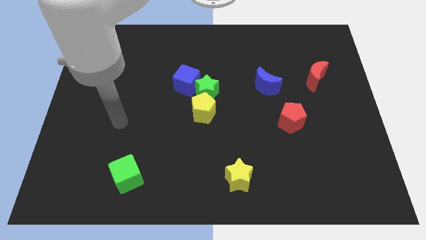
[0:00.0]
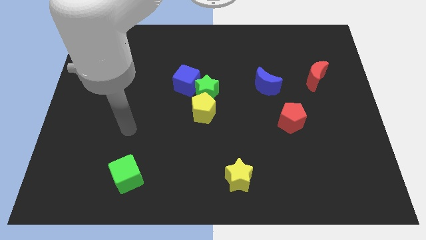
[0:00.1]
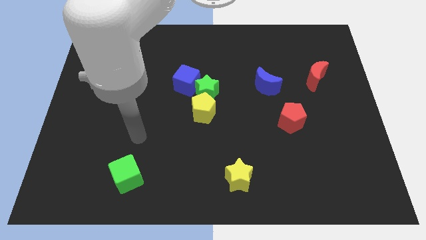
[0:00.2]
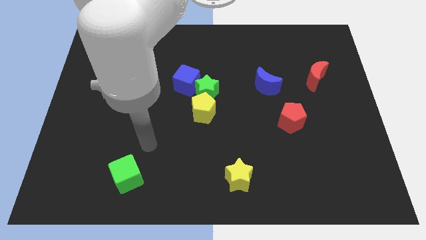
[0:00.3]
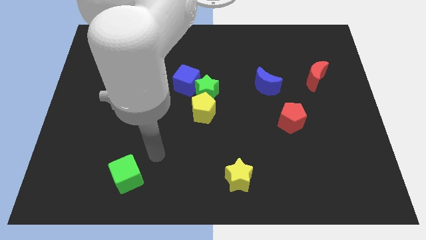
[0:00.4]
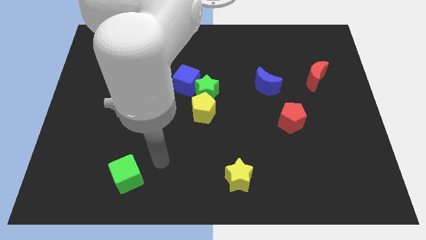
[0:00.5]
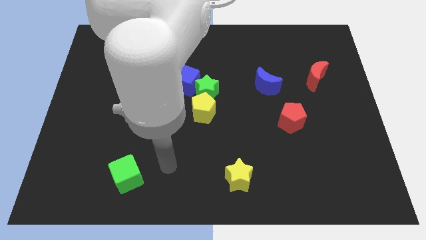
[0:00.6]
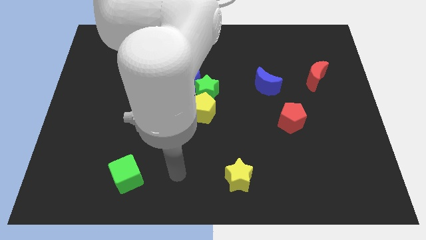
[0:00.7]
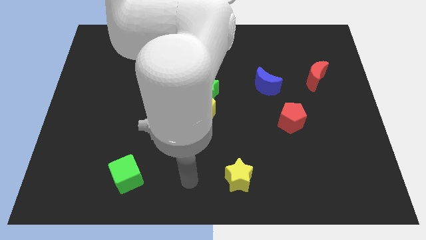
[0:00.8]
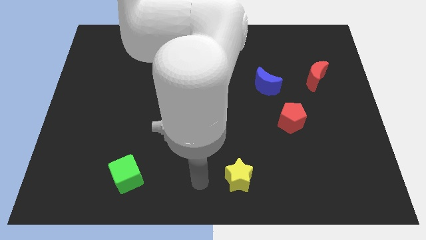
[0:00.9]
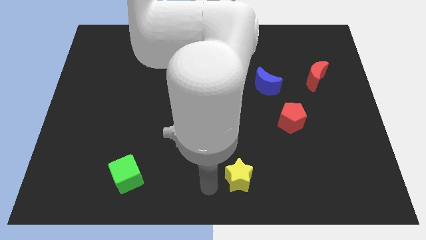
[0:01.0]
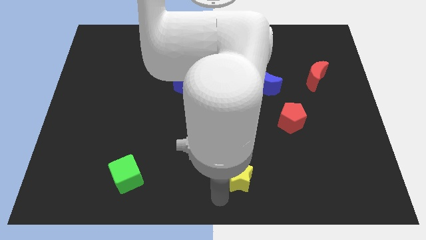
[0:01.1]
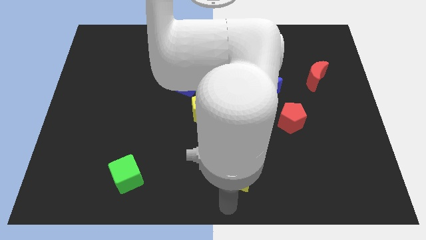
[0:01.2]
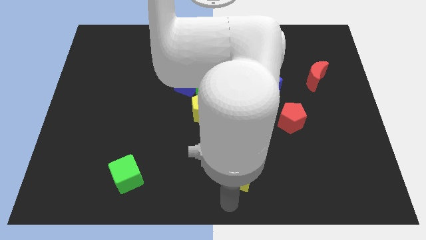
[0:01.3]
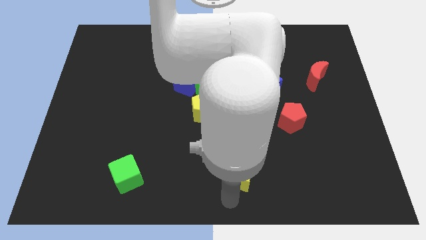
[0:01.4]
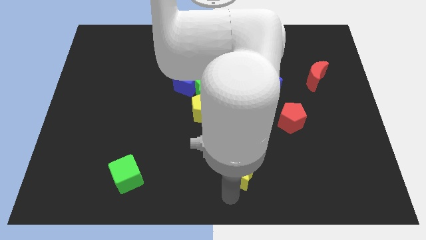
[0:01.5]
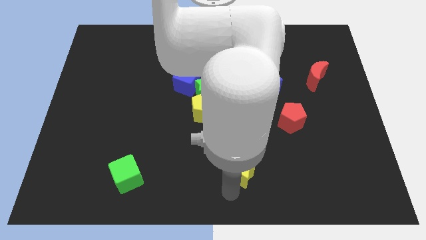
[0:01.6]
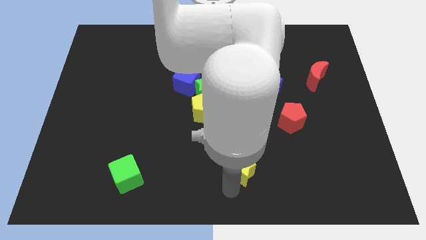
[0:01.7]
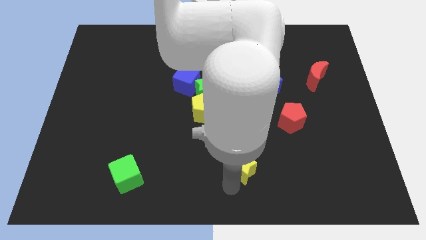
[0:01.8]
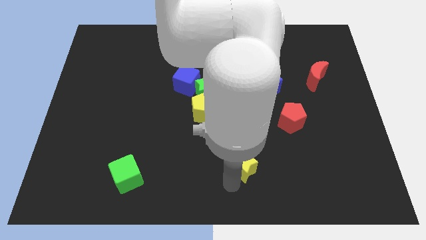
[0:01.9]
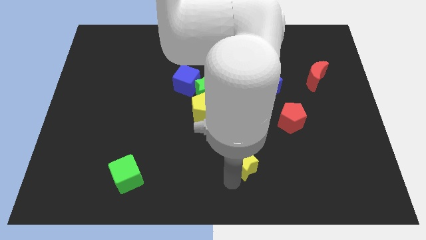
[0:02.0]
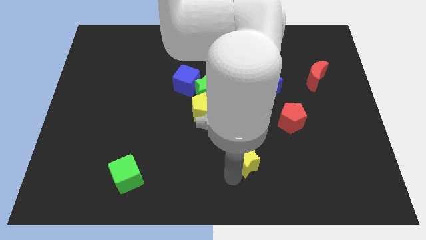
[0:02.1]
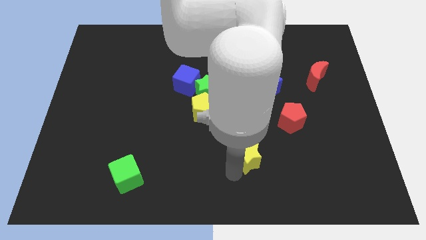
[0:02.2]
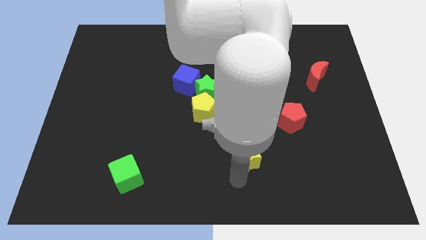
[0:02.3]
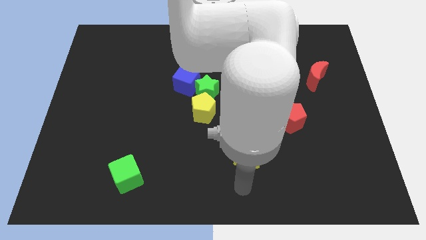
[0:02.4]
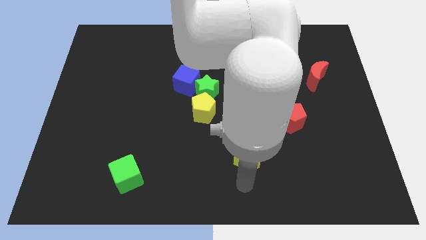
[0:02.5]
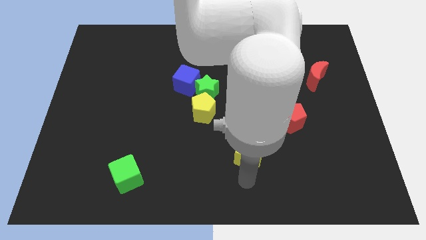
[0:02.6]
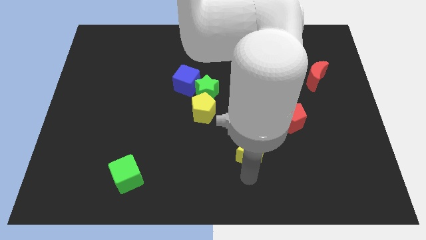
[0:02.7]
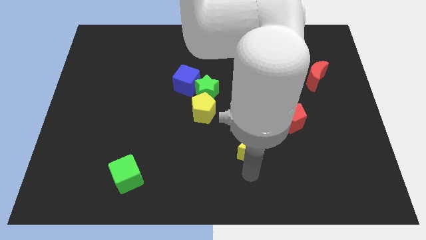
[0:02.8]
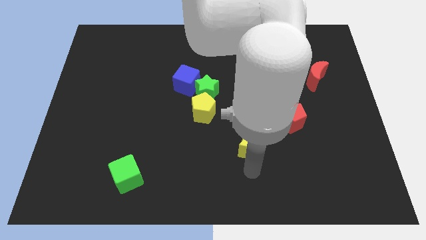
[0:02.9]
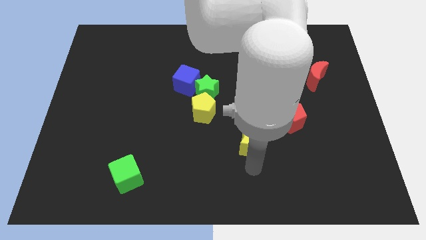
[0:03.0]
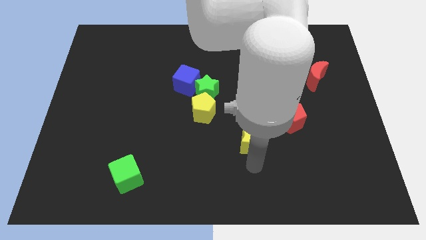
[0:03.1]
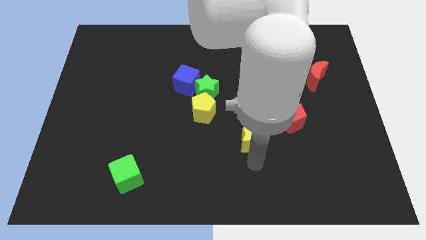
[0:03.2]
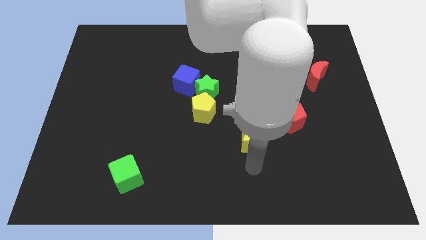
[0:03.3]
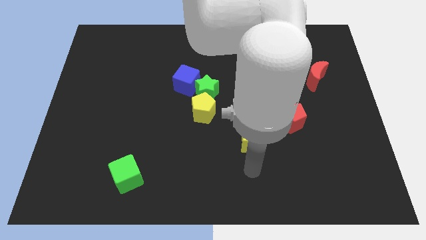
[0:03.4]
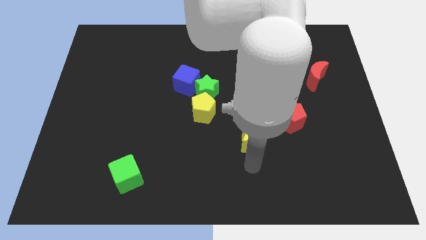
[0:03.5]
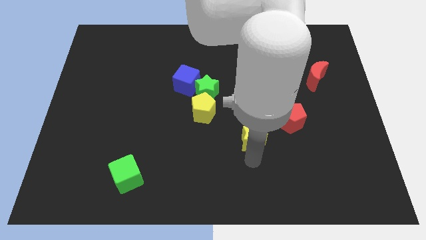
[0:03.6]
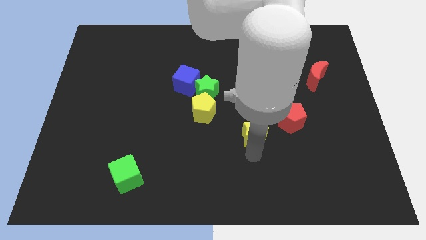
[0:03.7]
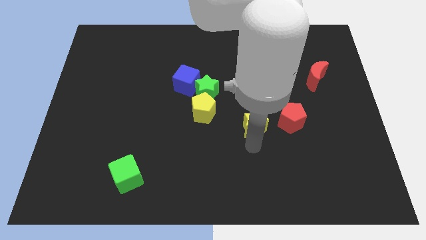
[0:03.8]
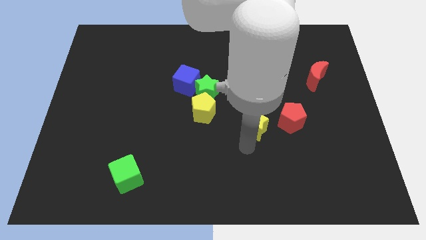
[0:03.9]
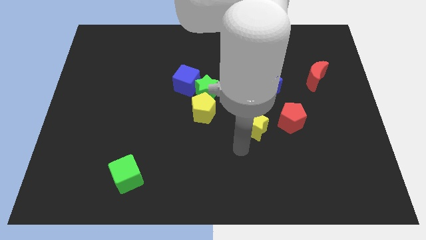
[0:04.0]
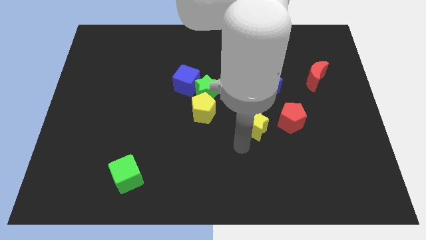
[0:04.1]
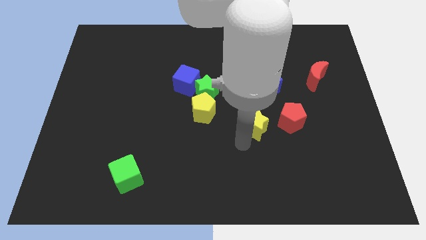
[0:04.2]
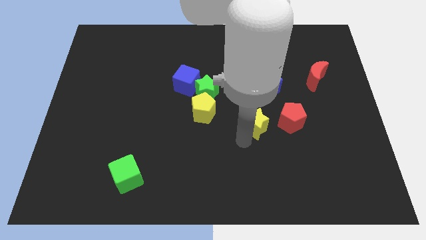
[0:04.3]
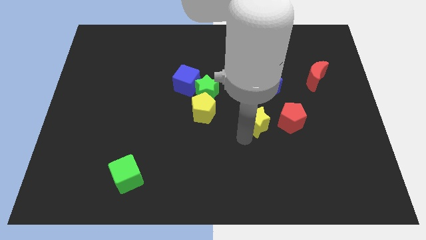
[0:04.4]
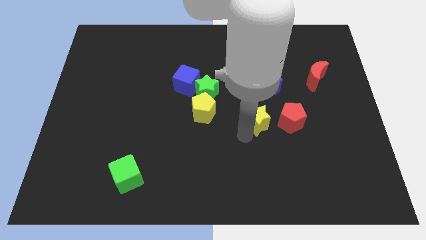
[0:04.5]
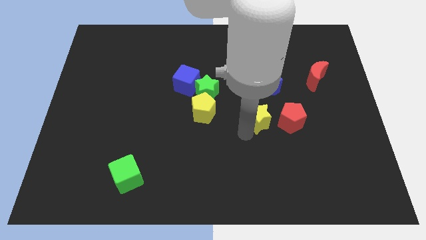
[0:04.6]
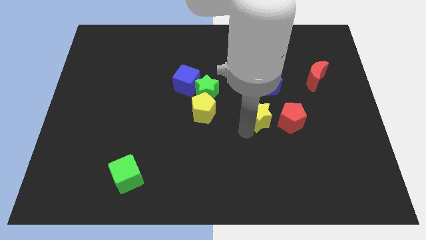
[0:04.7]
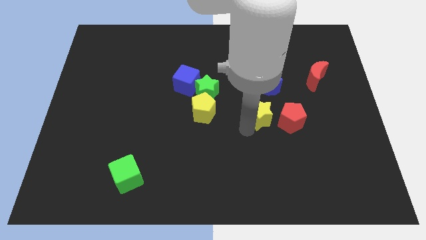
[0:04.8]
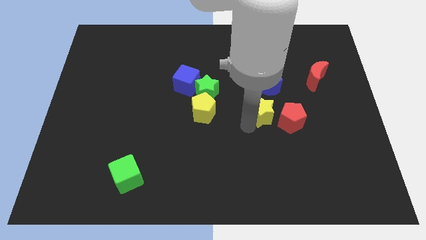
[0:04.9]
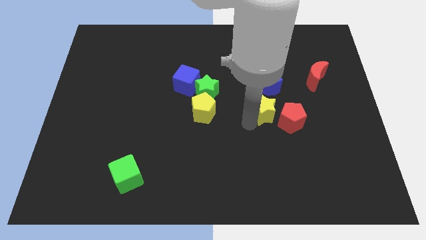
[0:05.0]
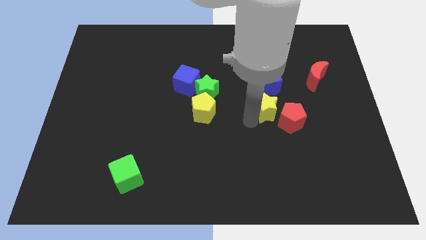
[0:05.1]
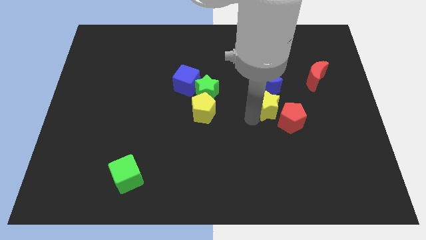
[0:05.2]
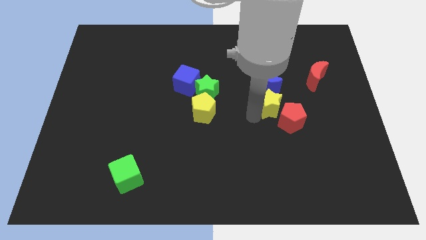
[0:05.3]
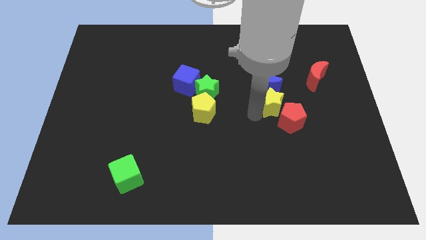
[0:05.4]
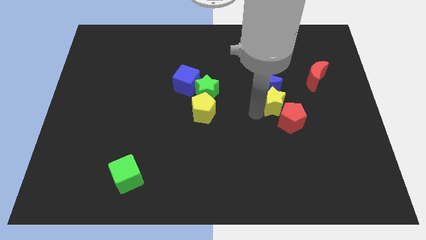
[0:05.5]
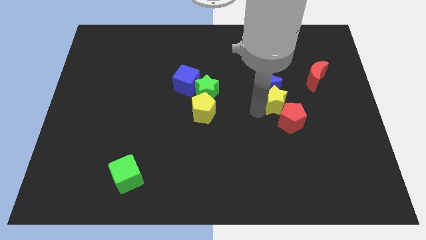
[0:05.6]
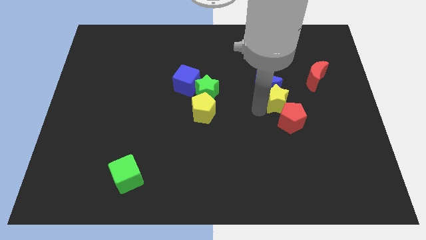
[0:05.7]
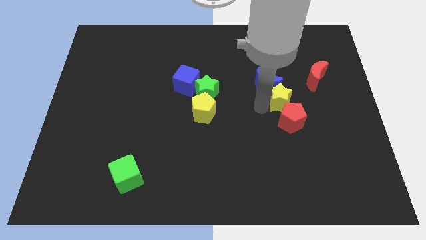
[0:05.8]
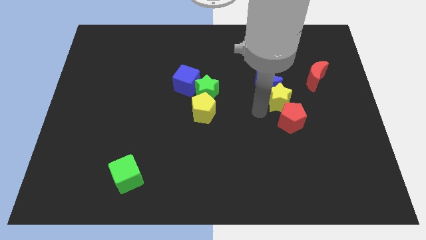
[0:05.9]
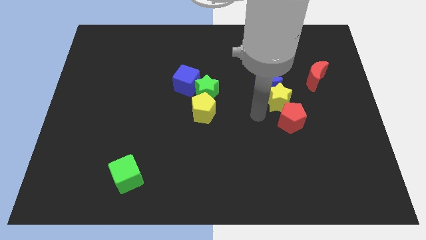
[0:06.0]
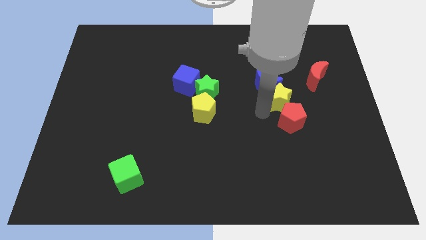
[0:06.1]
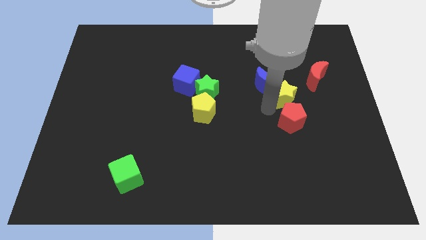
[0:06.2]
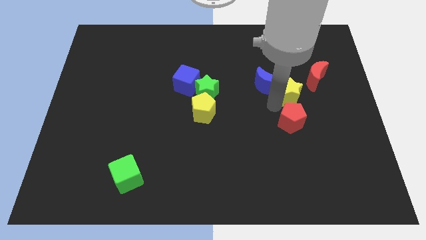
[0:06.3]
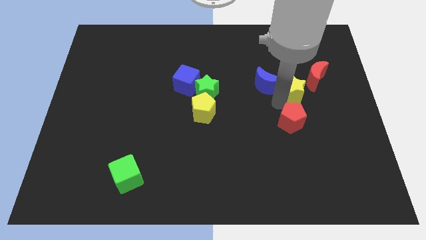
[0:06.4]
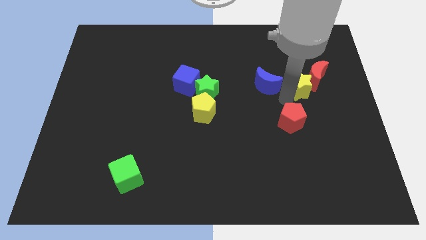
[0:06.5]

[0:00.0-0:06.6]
put the yellow star towards the red moon

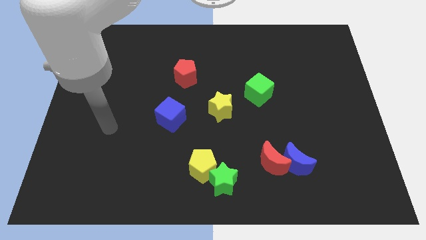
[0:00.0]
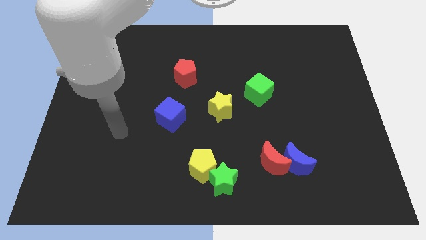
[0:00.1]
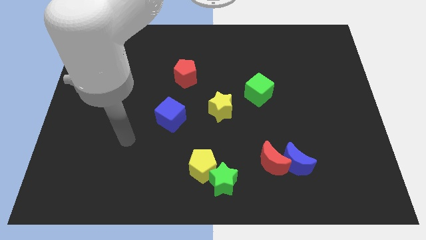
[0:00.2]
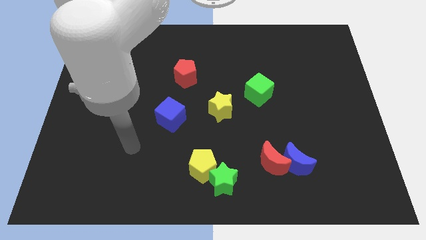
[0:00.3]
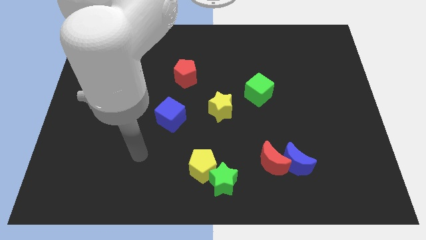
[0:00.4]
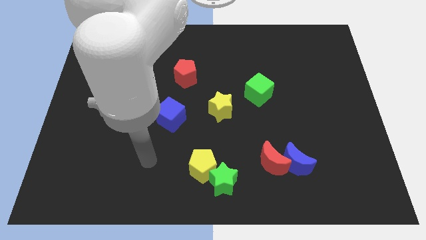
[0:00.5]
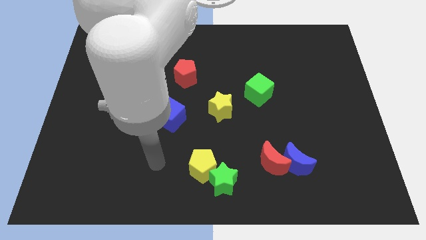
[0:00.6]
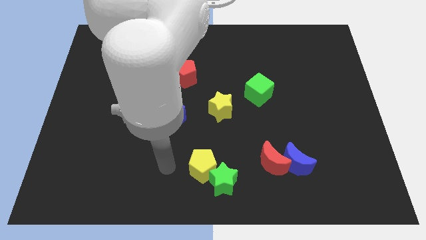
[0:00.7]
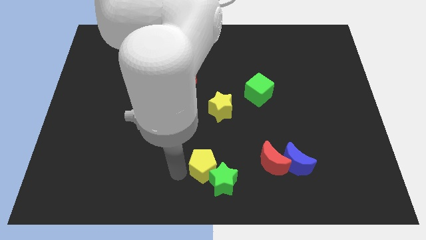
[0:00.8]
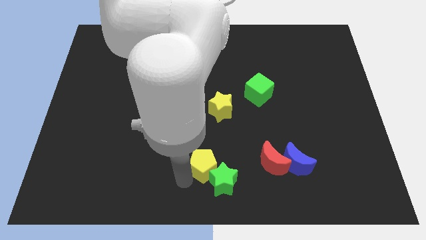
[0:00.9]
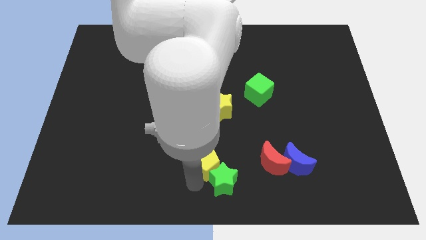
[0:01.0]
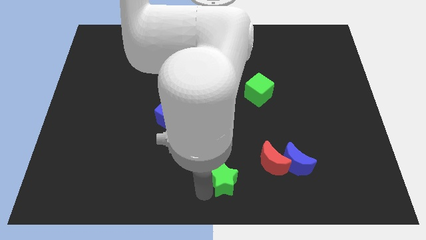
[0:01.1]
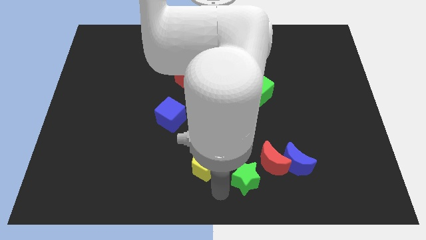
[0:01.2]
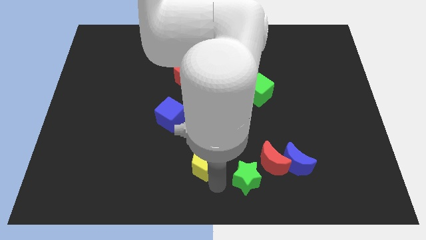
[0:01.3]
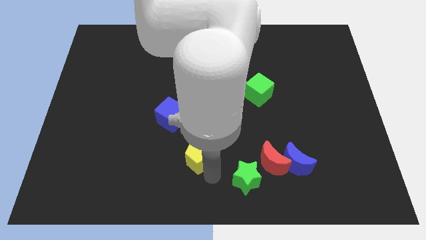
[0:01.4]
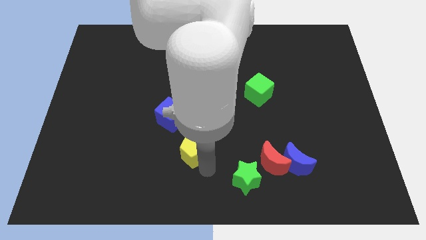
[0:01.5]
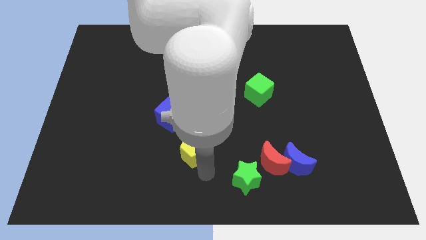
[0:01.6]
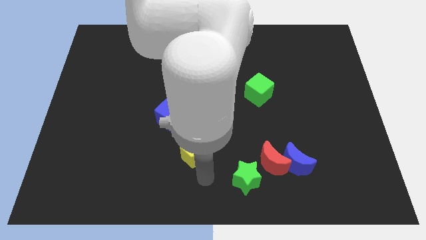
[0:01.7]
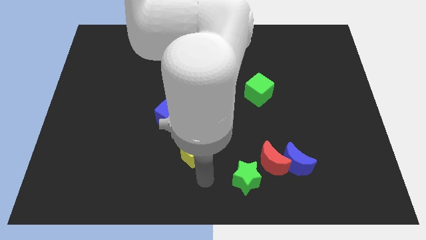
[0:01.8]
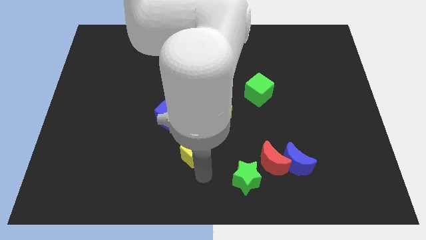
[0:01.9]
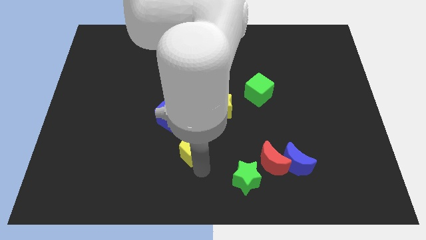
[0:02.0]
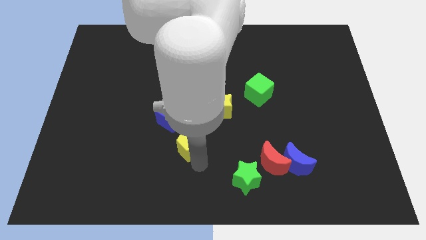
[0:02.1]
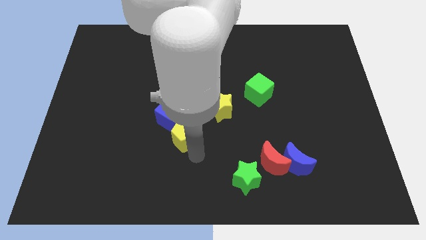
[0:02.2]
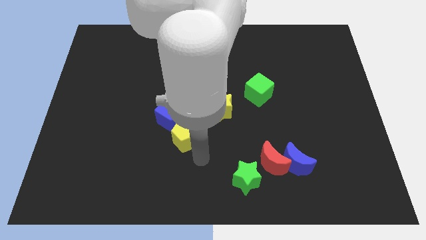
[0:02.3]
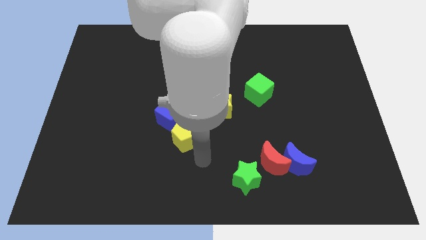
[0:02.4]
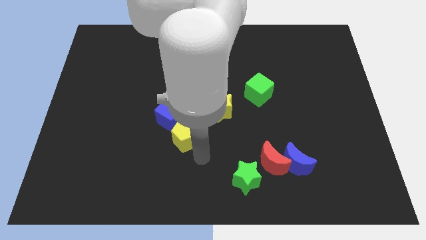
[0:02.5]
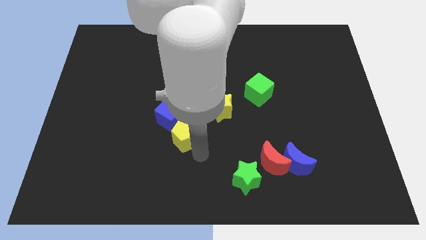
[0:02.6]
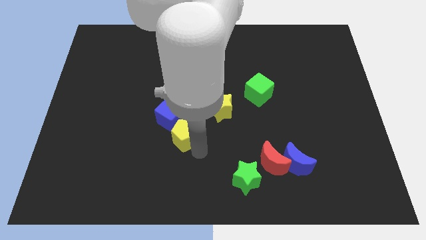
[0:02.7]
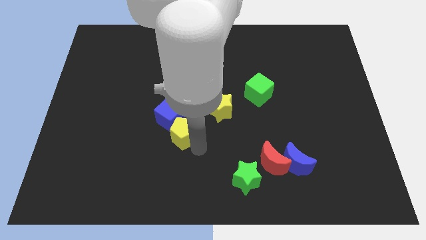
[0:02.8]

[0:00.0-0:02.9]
move the yellow pentagon towards the blue cube
